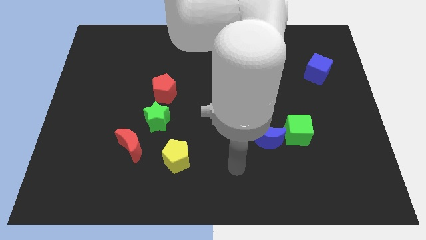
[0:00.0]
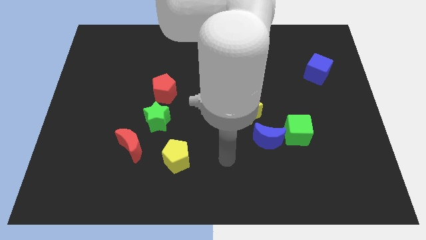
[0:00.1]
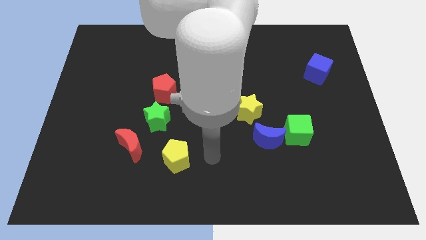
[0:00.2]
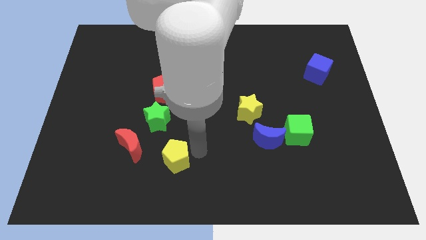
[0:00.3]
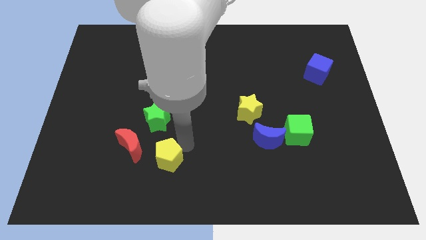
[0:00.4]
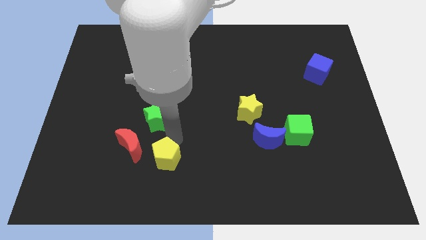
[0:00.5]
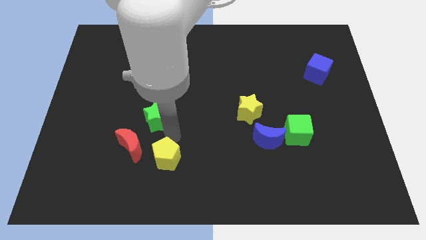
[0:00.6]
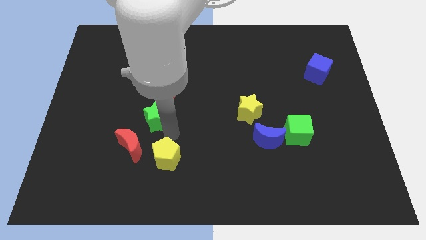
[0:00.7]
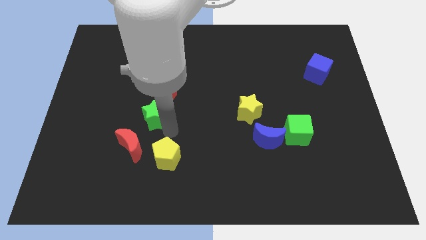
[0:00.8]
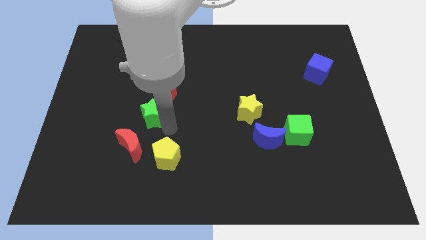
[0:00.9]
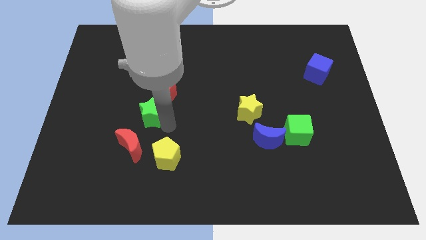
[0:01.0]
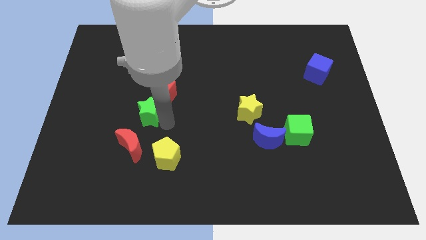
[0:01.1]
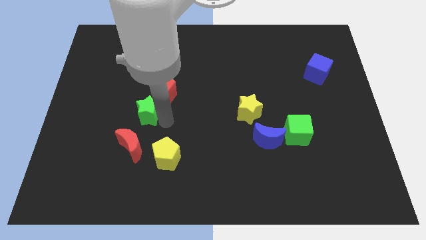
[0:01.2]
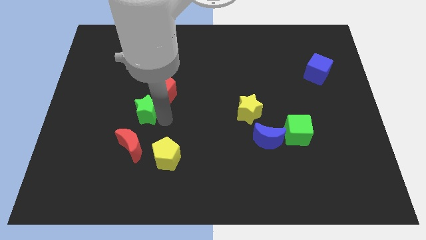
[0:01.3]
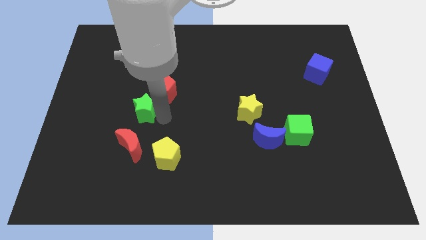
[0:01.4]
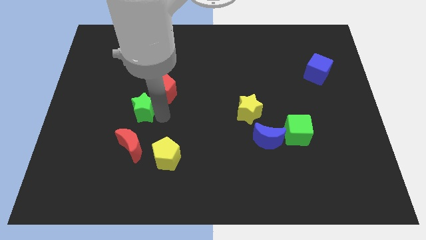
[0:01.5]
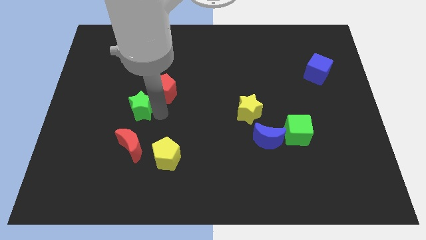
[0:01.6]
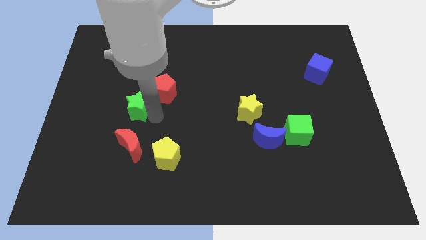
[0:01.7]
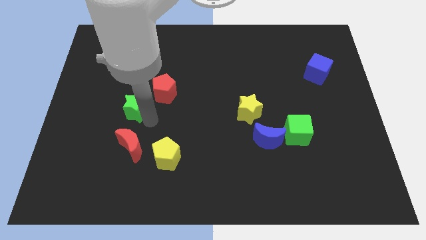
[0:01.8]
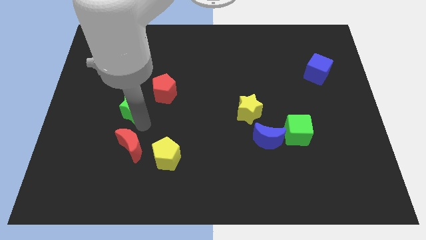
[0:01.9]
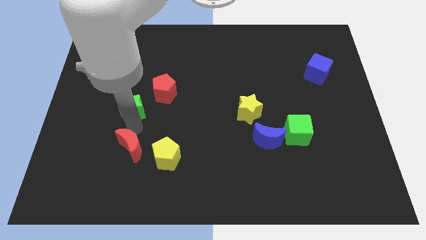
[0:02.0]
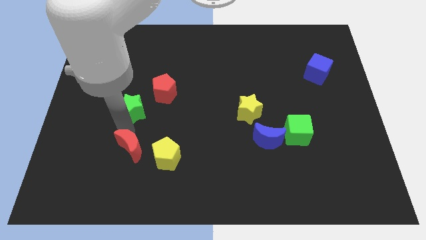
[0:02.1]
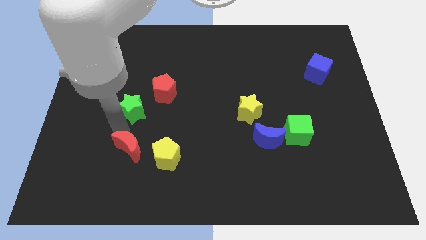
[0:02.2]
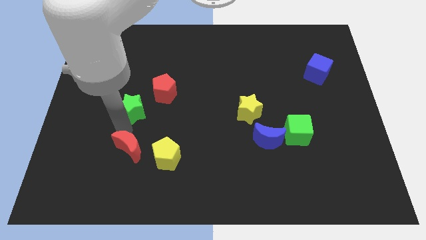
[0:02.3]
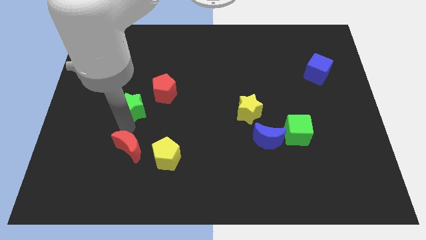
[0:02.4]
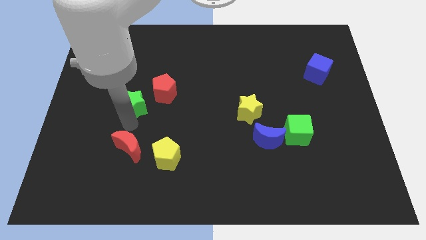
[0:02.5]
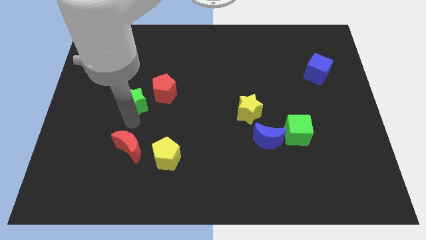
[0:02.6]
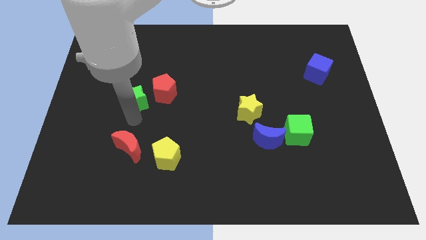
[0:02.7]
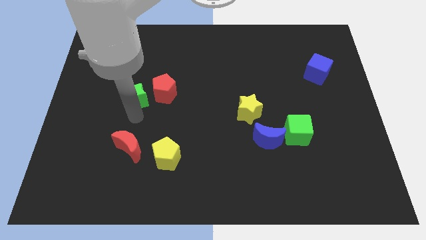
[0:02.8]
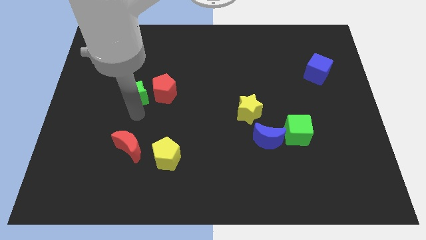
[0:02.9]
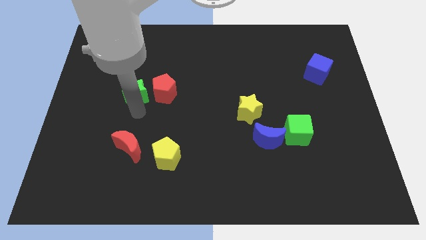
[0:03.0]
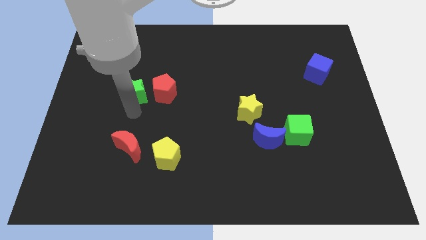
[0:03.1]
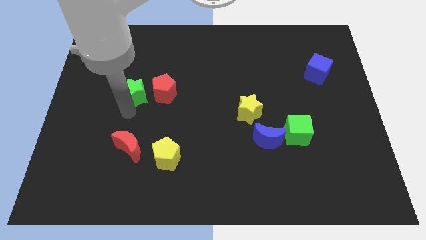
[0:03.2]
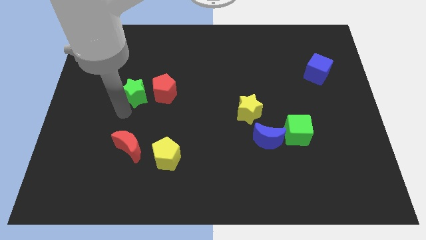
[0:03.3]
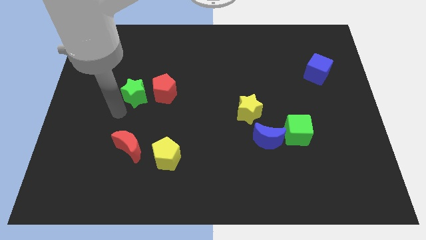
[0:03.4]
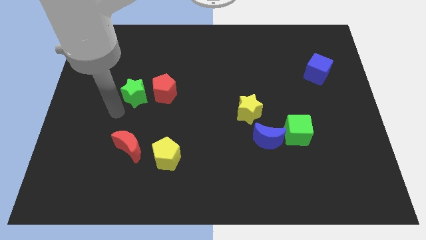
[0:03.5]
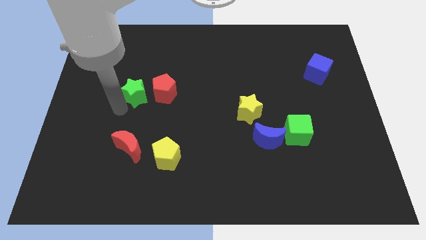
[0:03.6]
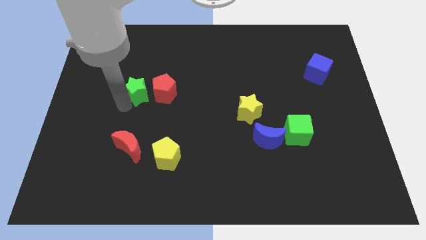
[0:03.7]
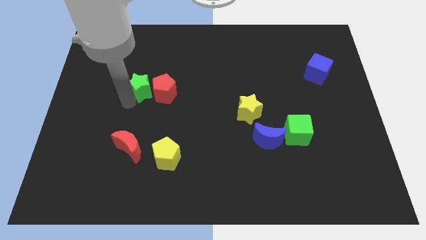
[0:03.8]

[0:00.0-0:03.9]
slightly push the green star up

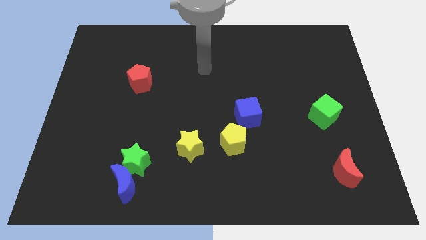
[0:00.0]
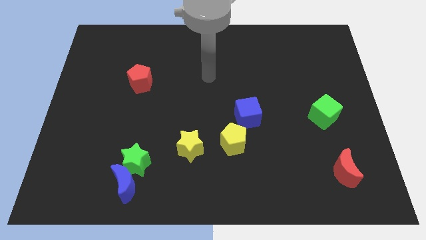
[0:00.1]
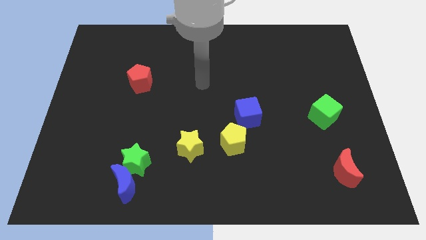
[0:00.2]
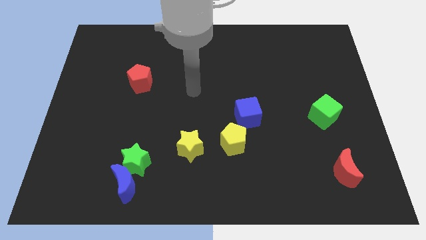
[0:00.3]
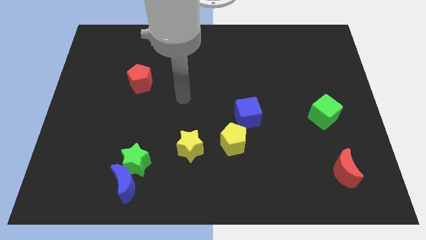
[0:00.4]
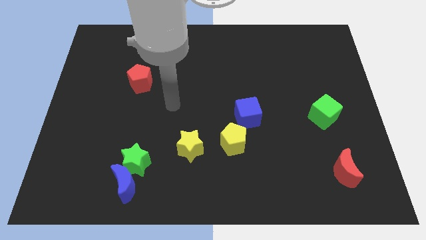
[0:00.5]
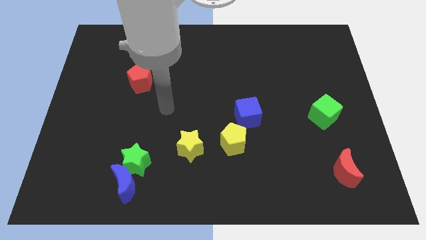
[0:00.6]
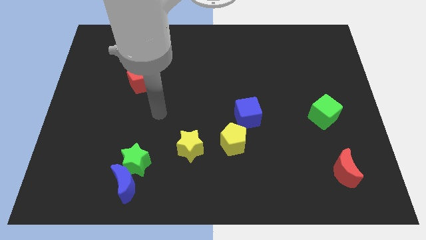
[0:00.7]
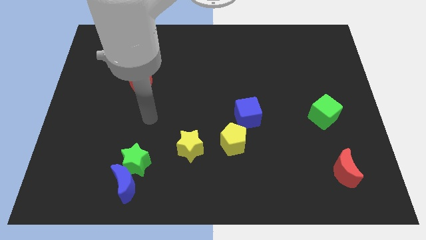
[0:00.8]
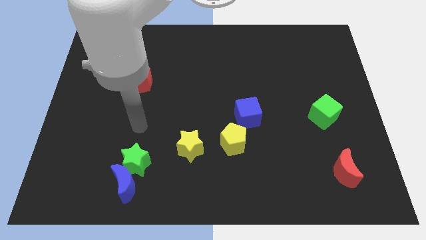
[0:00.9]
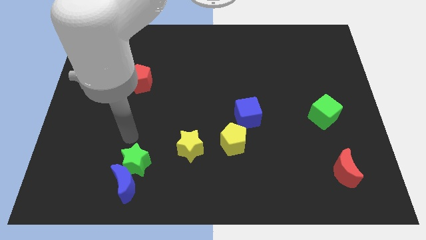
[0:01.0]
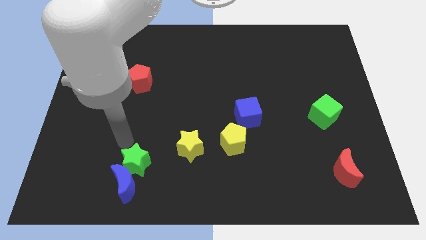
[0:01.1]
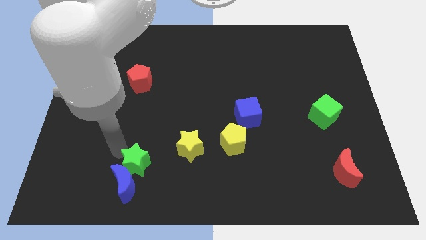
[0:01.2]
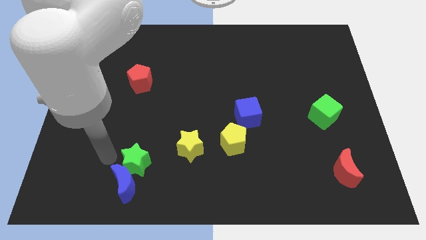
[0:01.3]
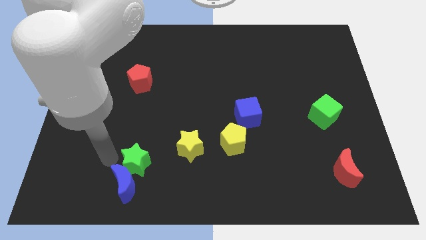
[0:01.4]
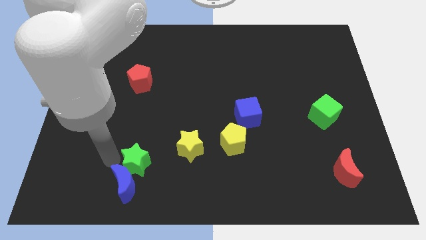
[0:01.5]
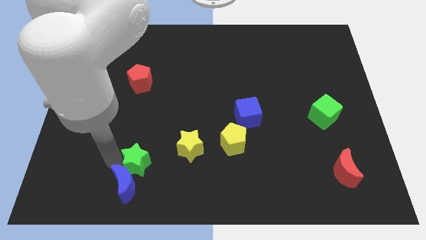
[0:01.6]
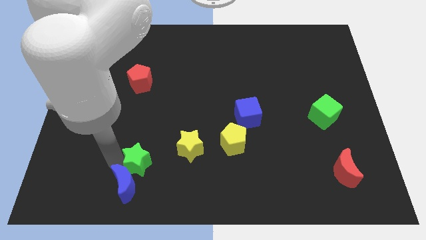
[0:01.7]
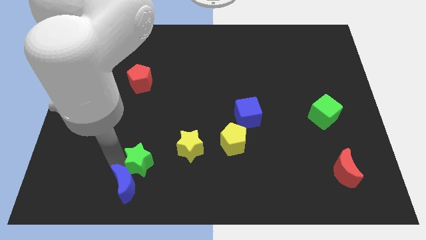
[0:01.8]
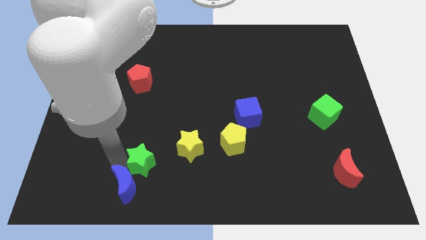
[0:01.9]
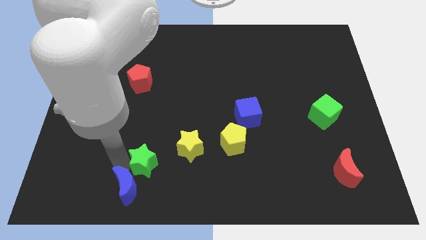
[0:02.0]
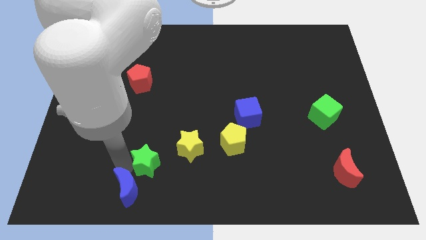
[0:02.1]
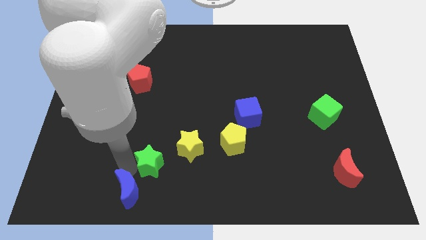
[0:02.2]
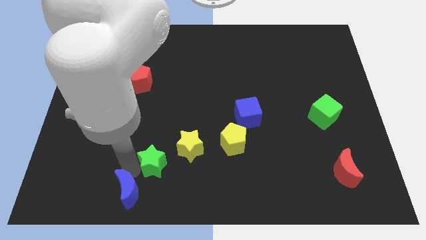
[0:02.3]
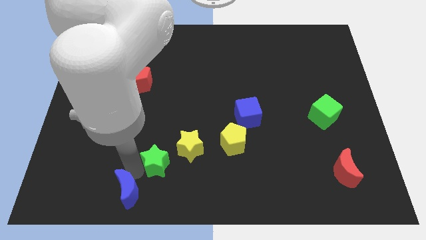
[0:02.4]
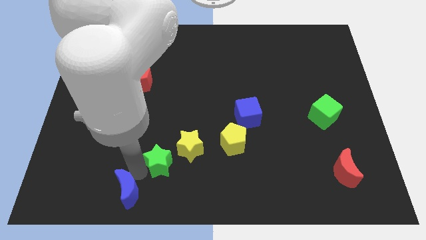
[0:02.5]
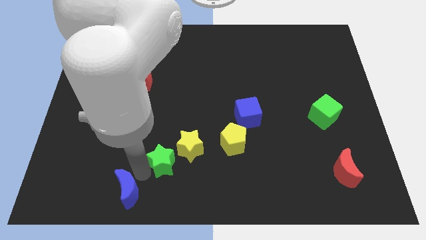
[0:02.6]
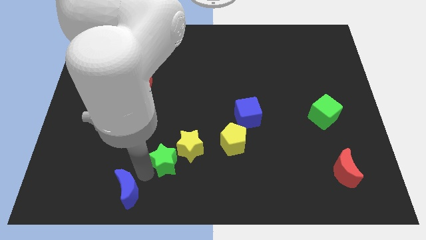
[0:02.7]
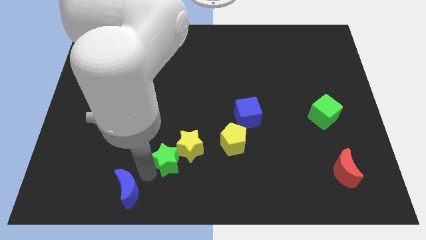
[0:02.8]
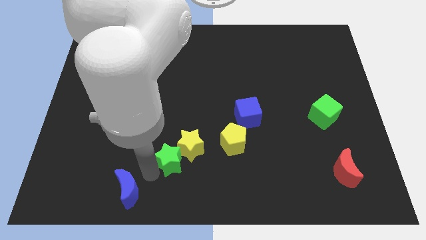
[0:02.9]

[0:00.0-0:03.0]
push the green star slightly to the right

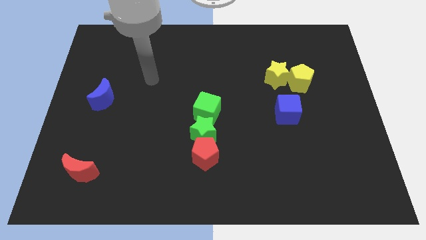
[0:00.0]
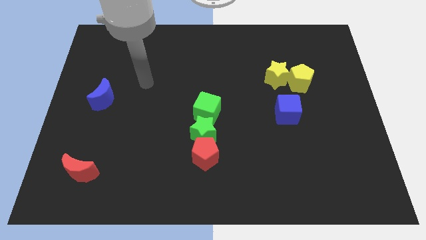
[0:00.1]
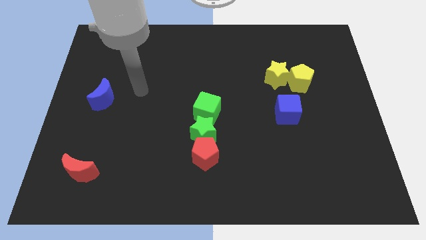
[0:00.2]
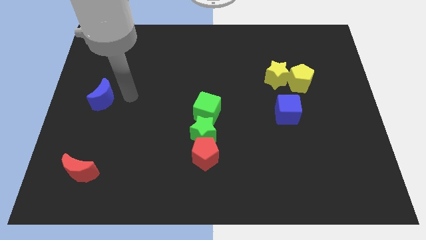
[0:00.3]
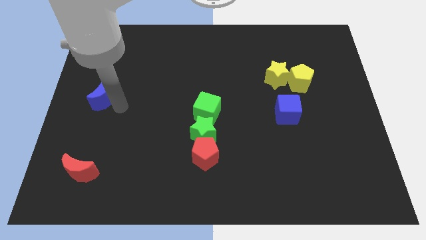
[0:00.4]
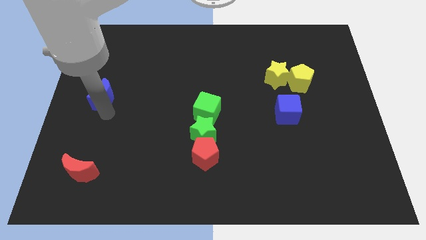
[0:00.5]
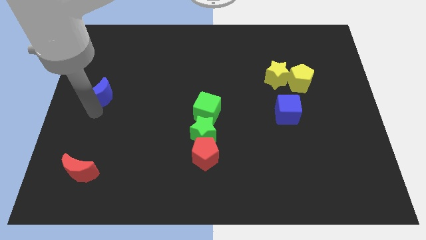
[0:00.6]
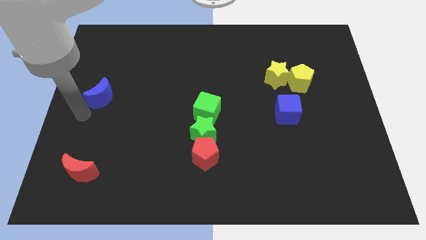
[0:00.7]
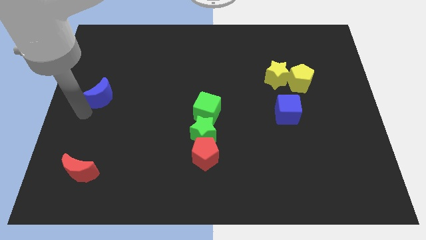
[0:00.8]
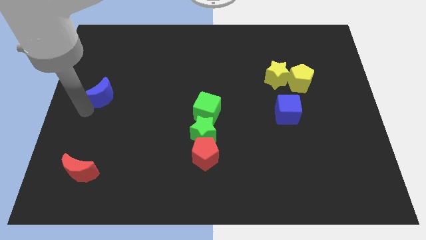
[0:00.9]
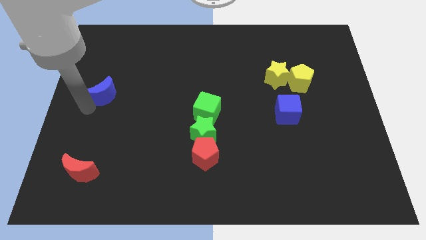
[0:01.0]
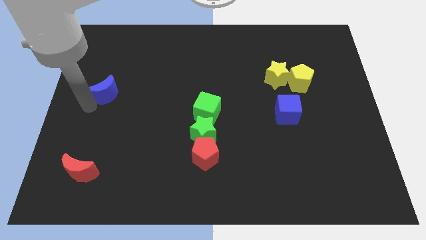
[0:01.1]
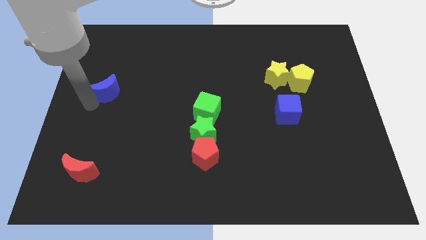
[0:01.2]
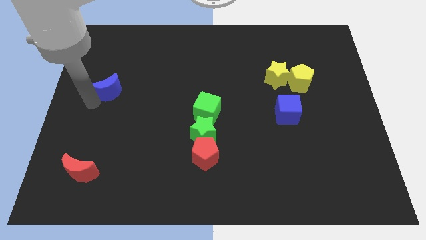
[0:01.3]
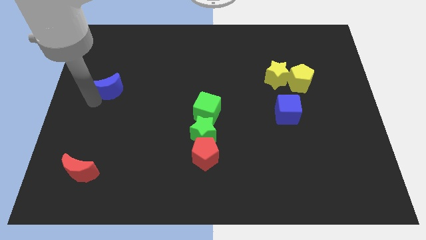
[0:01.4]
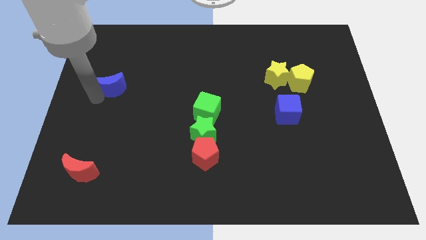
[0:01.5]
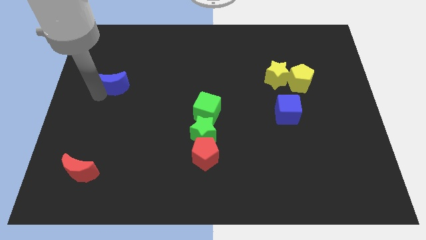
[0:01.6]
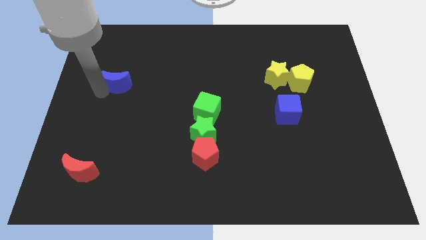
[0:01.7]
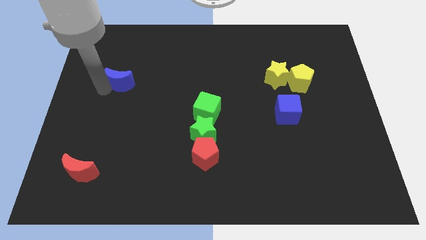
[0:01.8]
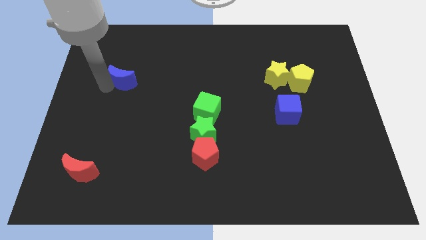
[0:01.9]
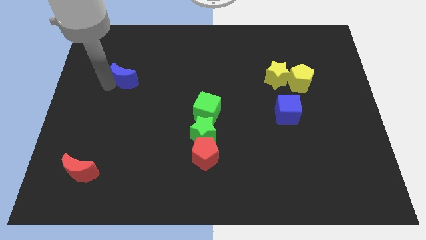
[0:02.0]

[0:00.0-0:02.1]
slightly slide the blue moon upwards and right diagonally
